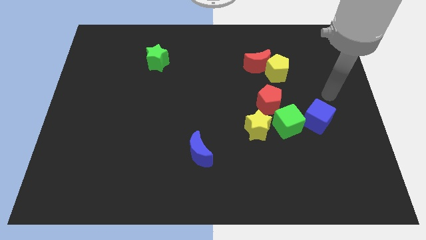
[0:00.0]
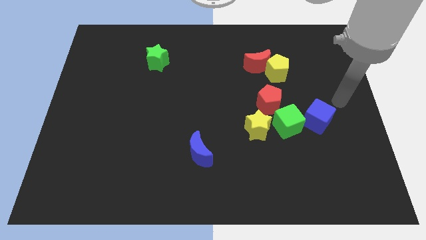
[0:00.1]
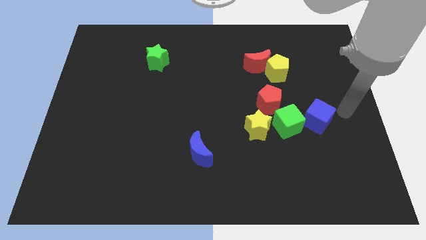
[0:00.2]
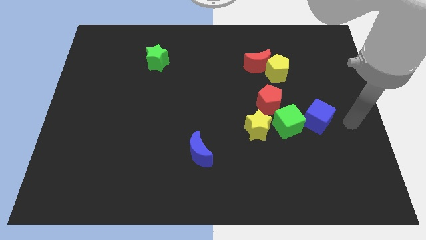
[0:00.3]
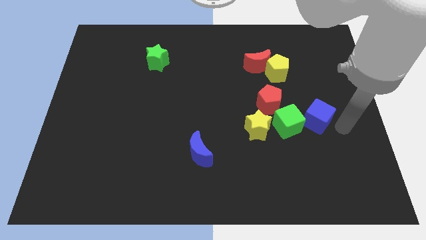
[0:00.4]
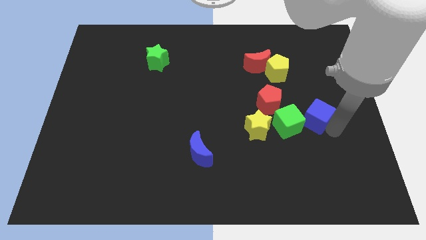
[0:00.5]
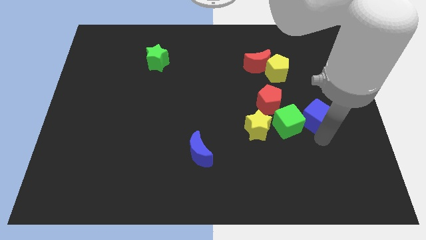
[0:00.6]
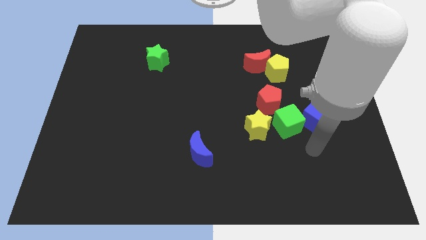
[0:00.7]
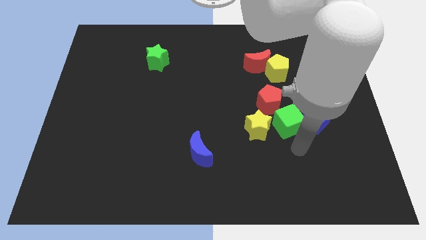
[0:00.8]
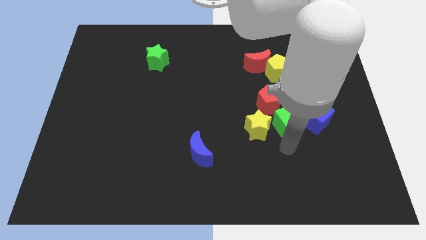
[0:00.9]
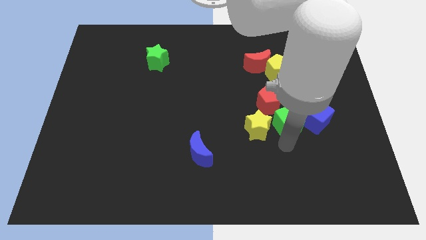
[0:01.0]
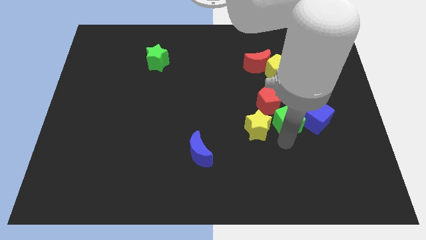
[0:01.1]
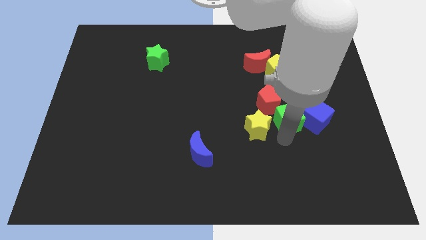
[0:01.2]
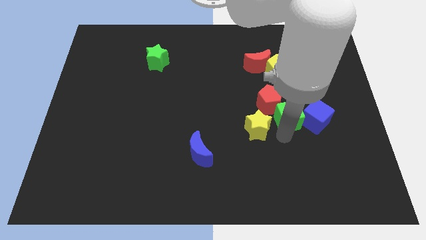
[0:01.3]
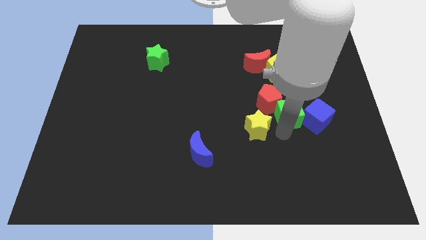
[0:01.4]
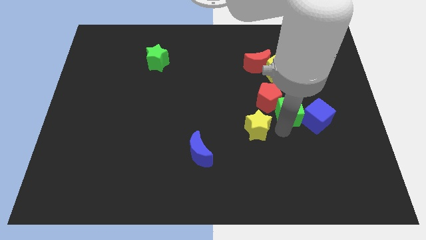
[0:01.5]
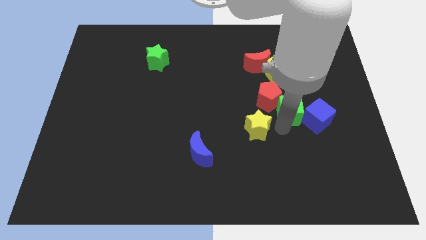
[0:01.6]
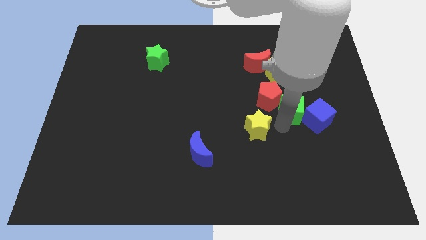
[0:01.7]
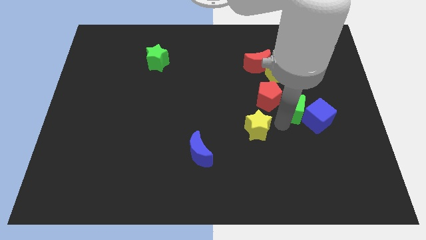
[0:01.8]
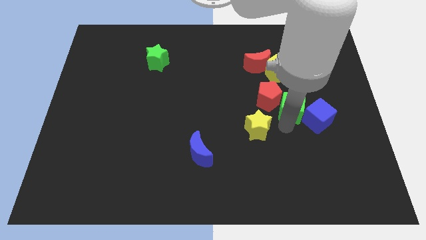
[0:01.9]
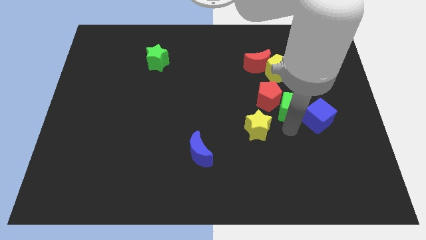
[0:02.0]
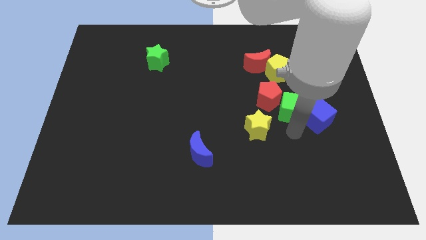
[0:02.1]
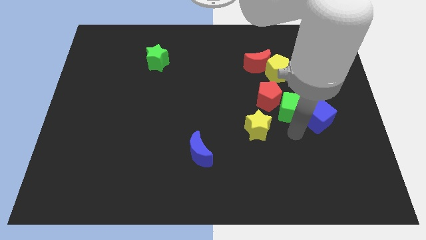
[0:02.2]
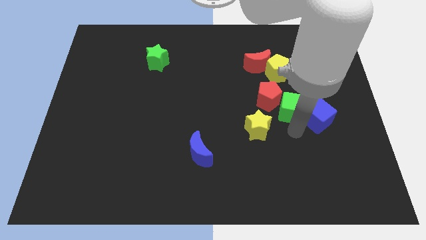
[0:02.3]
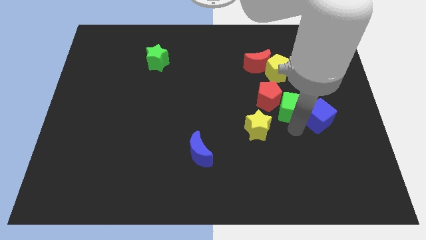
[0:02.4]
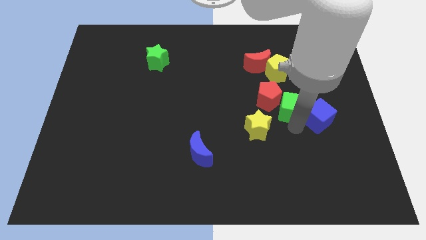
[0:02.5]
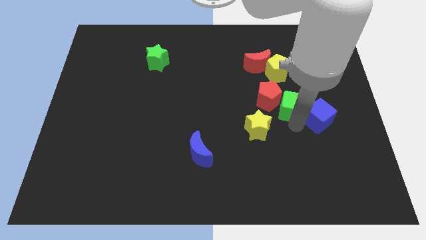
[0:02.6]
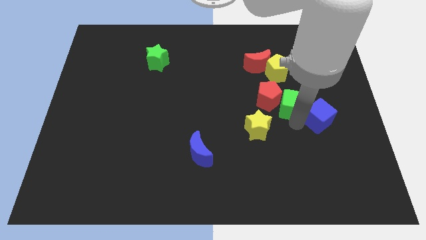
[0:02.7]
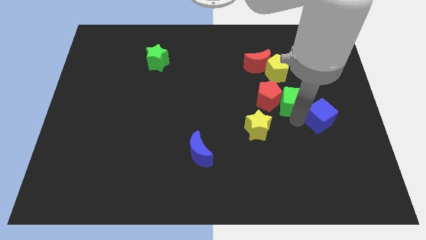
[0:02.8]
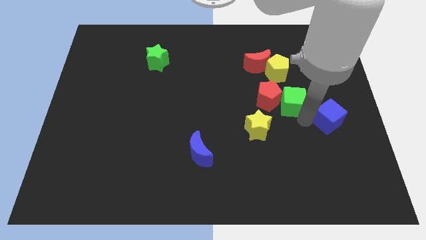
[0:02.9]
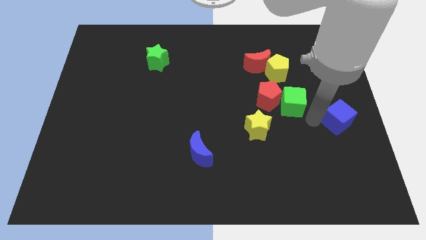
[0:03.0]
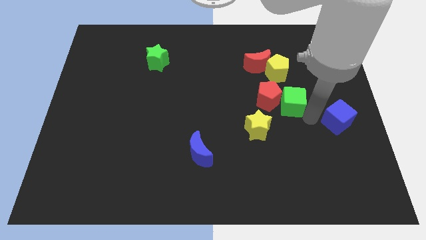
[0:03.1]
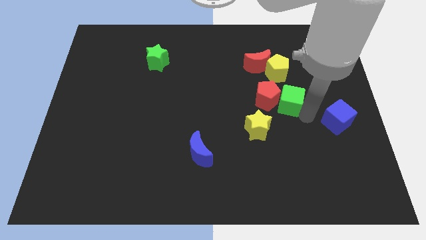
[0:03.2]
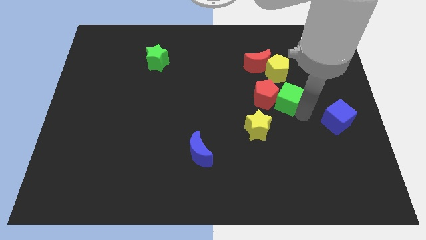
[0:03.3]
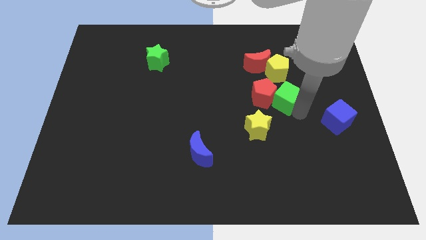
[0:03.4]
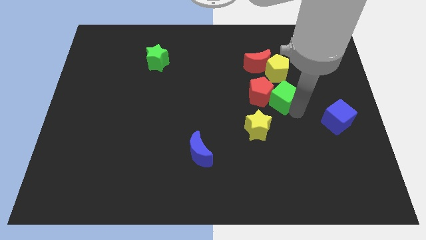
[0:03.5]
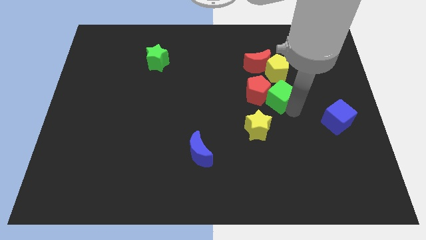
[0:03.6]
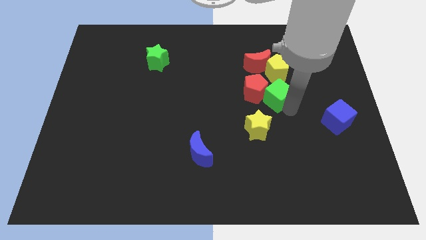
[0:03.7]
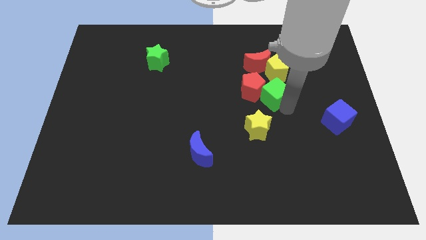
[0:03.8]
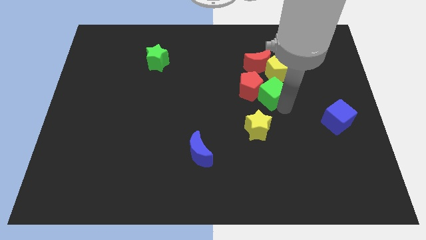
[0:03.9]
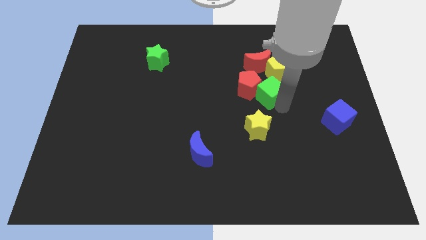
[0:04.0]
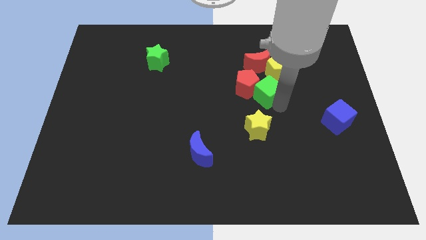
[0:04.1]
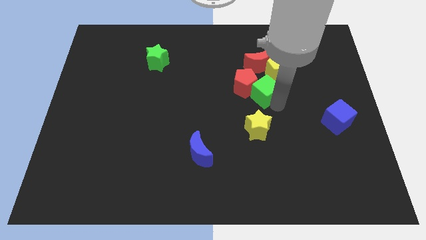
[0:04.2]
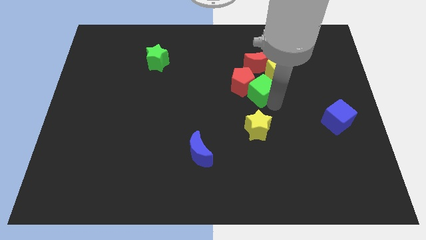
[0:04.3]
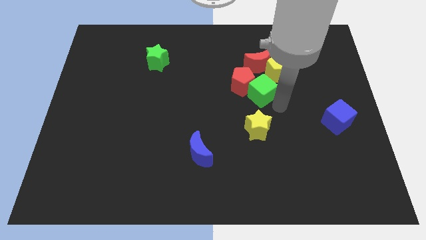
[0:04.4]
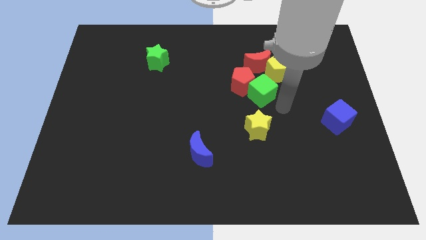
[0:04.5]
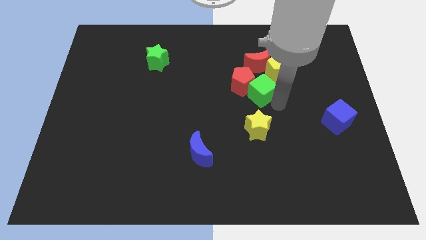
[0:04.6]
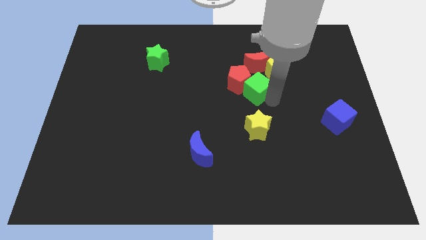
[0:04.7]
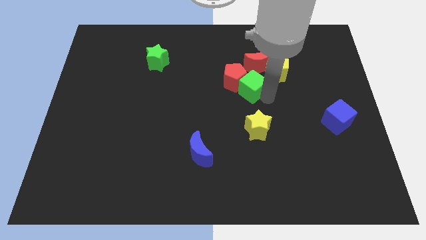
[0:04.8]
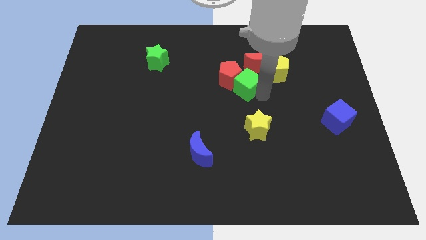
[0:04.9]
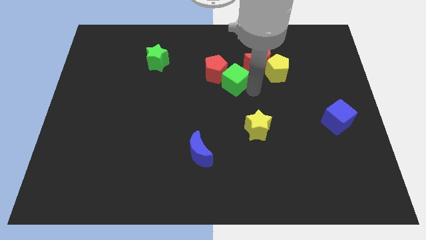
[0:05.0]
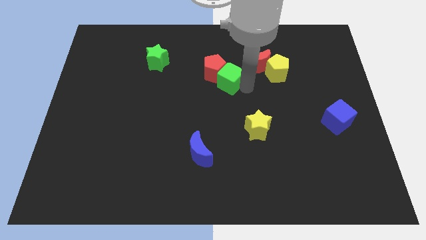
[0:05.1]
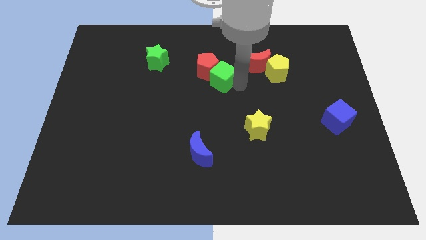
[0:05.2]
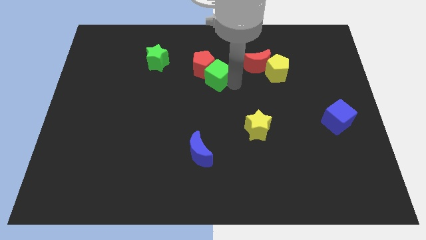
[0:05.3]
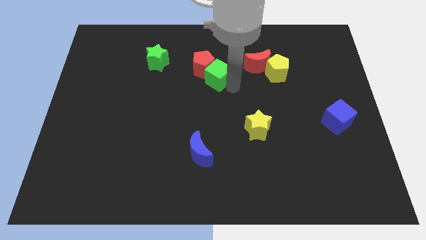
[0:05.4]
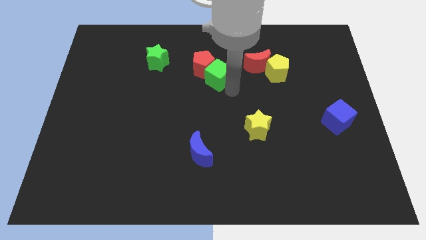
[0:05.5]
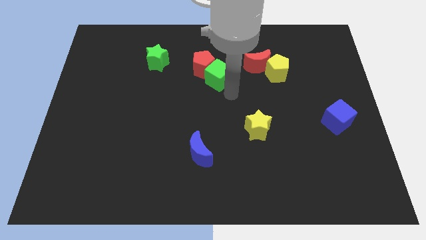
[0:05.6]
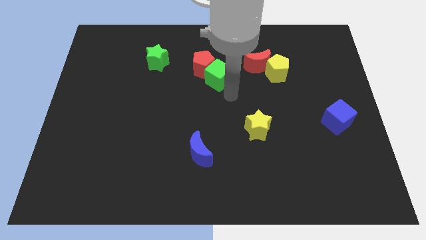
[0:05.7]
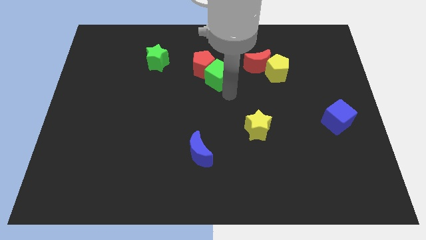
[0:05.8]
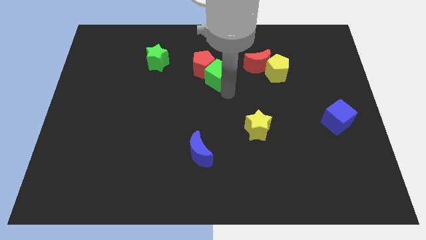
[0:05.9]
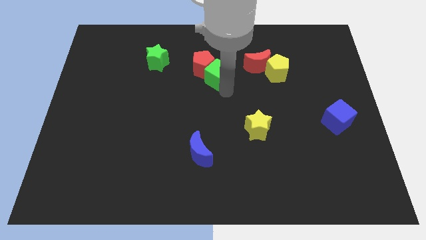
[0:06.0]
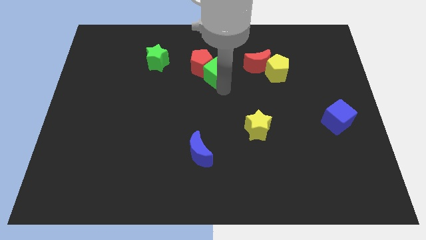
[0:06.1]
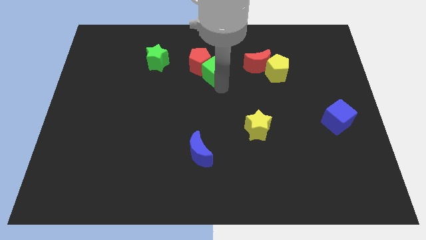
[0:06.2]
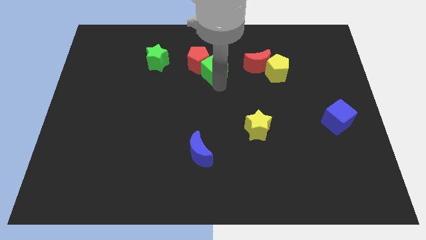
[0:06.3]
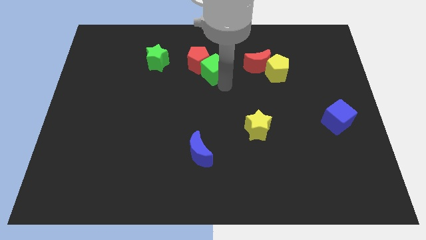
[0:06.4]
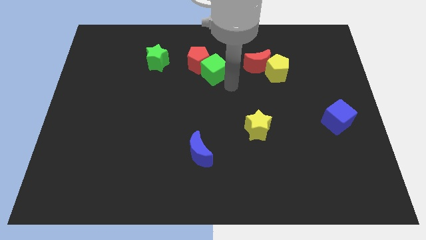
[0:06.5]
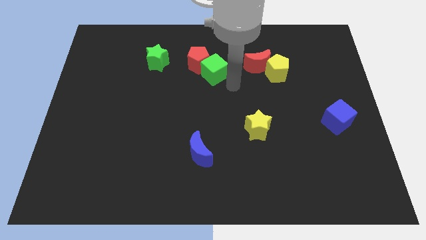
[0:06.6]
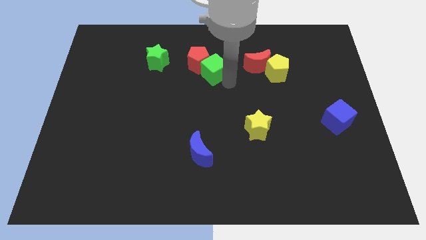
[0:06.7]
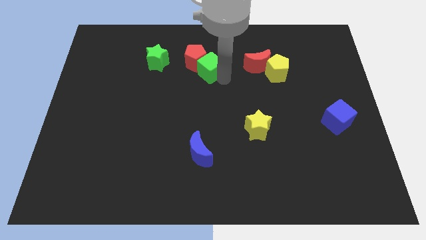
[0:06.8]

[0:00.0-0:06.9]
put the green cube just right of the green star
